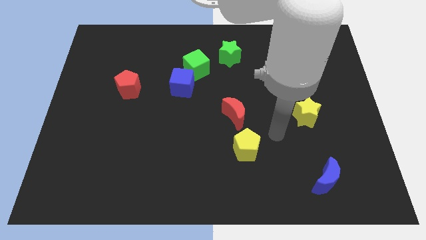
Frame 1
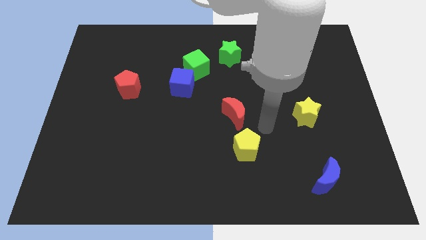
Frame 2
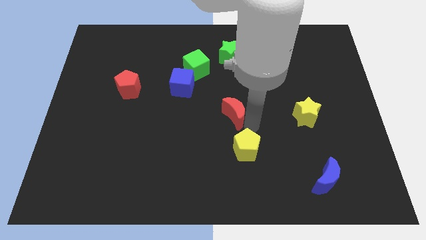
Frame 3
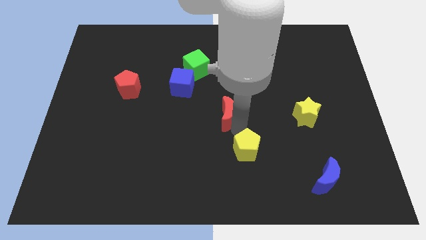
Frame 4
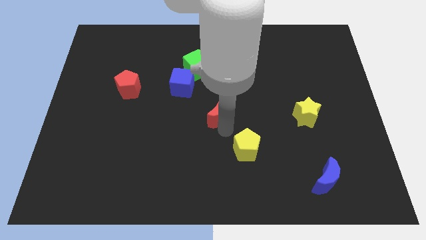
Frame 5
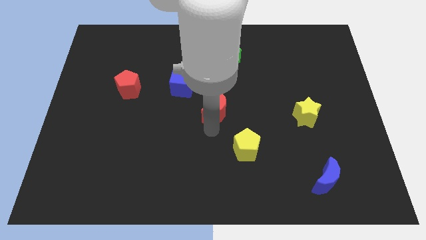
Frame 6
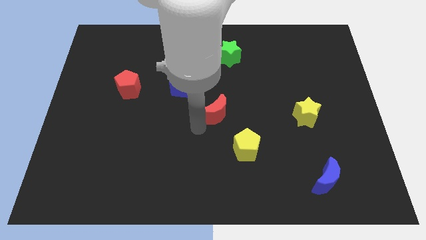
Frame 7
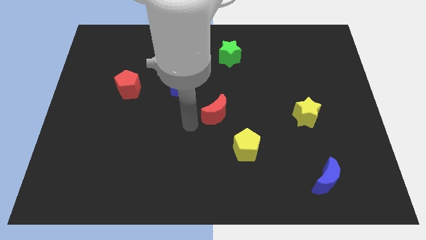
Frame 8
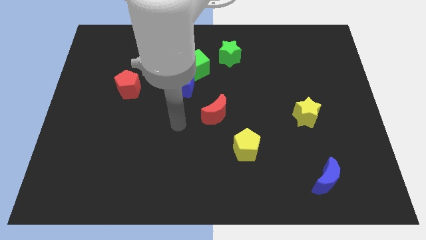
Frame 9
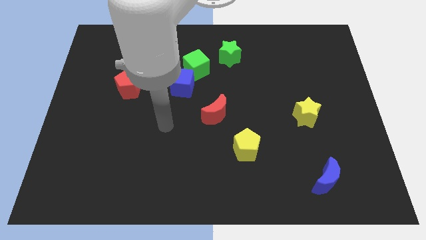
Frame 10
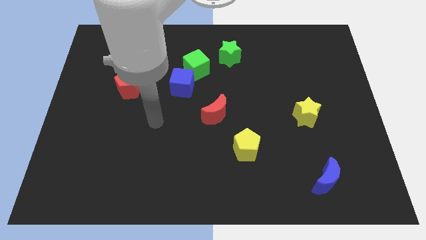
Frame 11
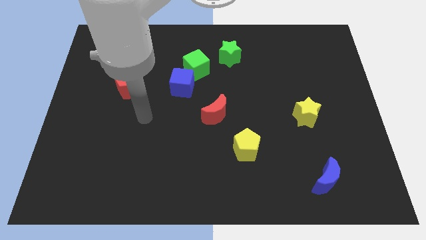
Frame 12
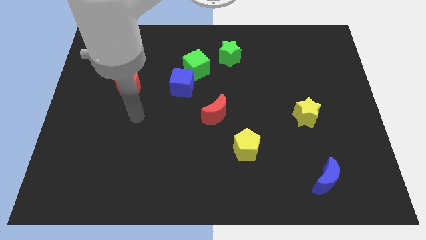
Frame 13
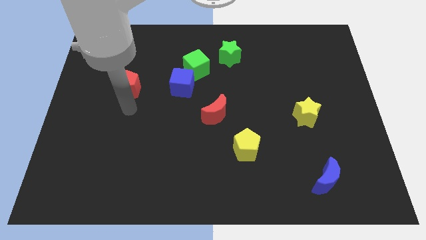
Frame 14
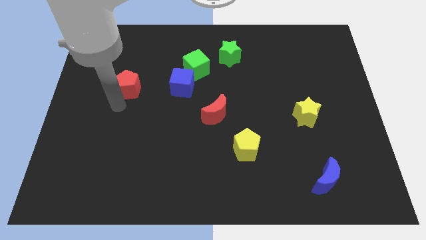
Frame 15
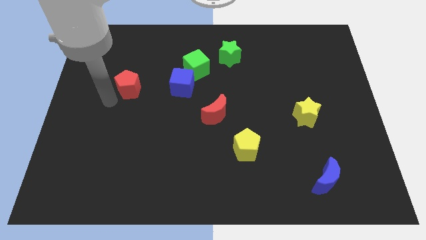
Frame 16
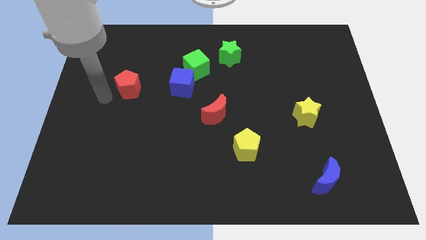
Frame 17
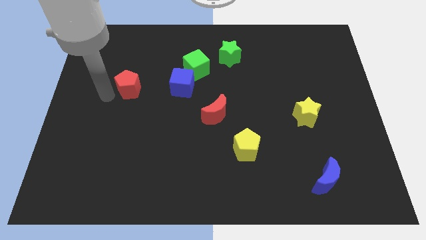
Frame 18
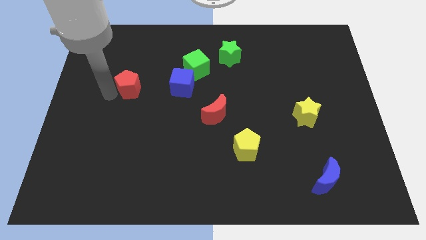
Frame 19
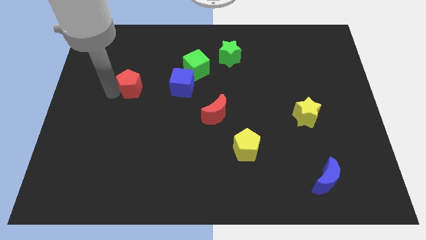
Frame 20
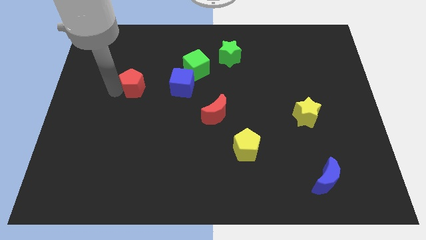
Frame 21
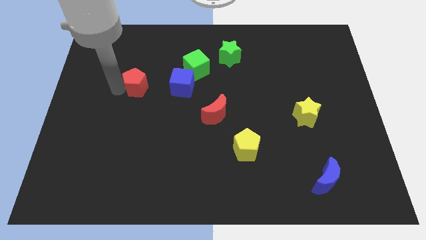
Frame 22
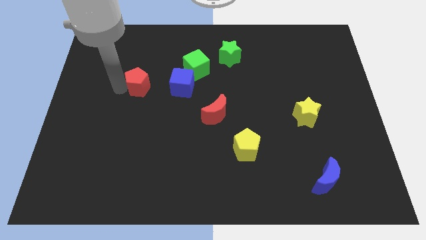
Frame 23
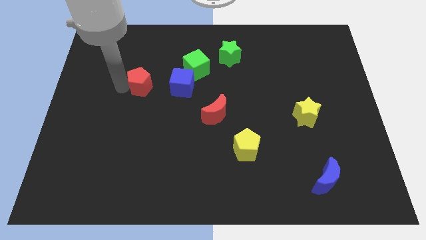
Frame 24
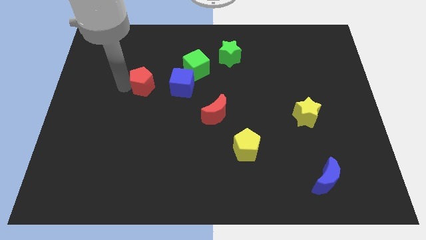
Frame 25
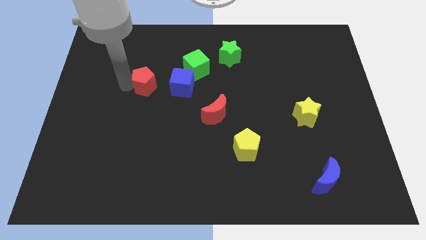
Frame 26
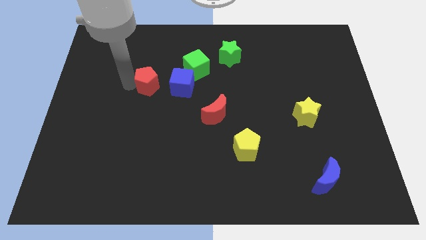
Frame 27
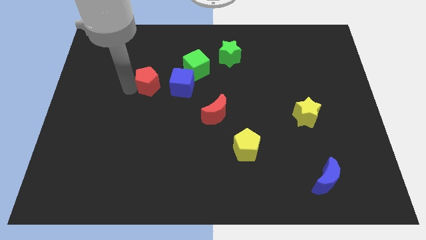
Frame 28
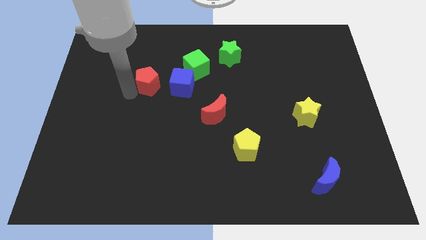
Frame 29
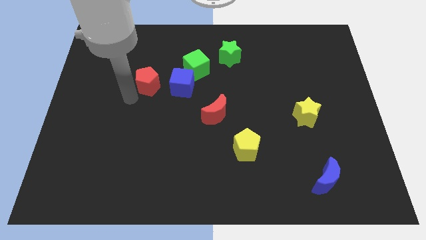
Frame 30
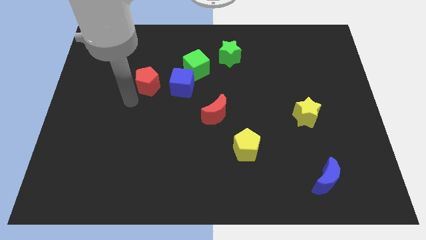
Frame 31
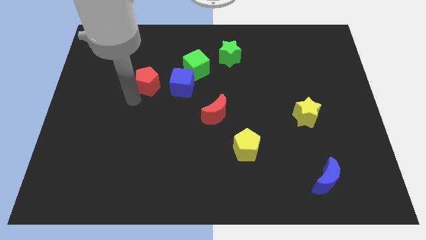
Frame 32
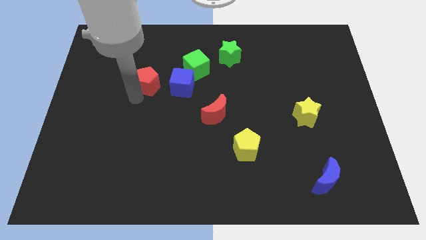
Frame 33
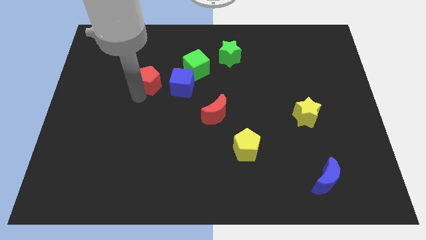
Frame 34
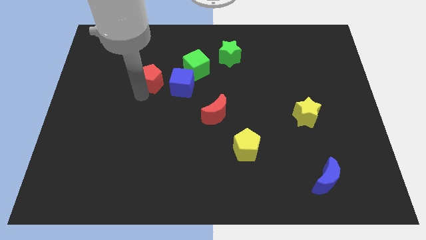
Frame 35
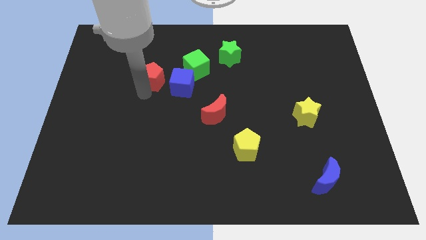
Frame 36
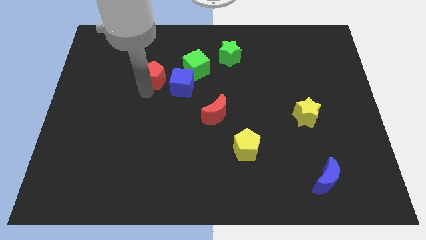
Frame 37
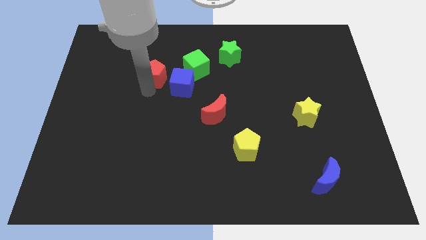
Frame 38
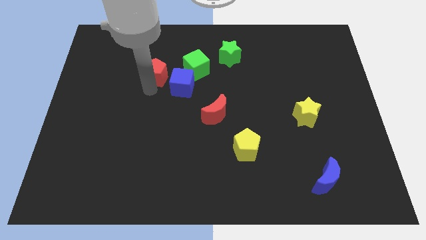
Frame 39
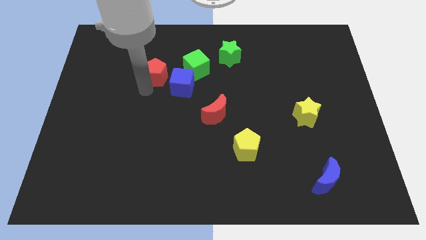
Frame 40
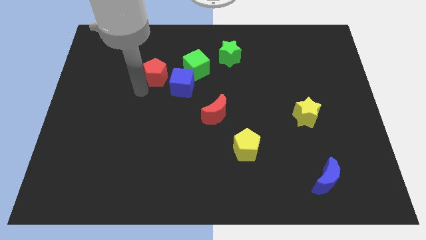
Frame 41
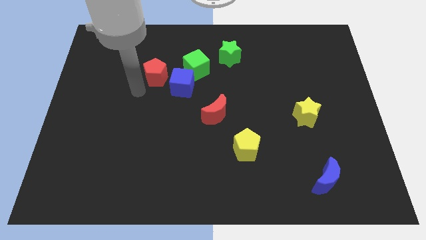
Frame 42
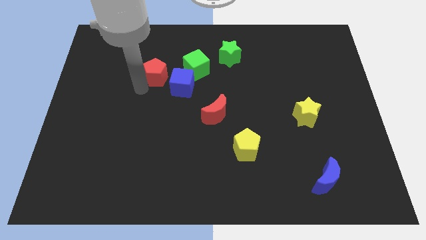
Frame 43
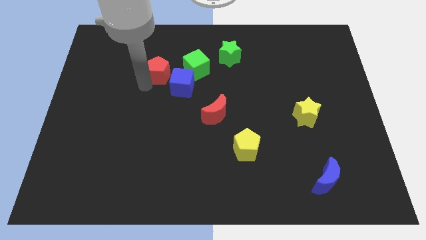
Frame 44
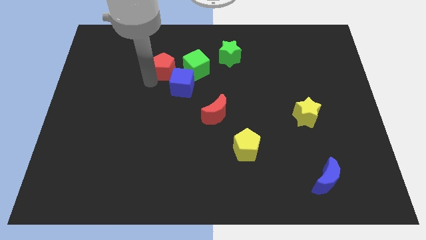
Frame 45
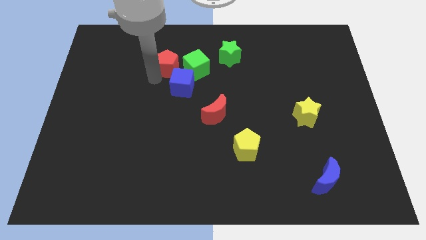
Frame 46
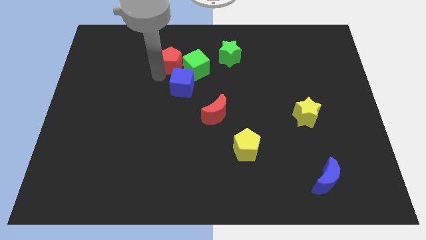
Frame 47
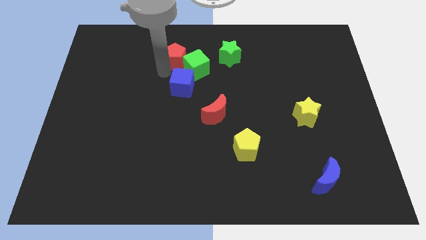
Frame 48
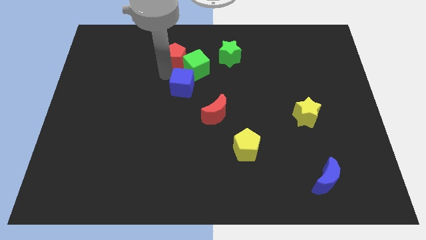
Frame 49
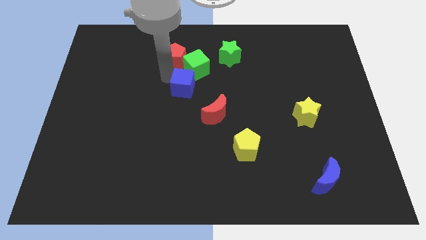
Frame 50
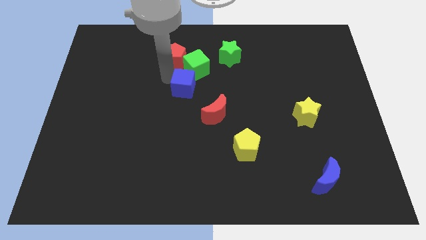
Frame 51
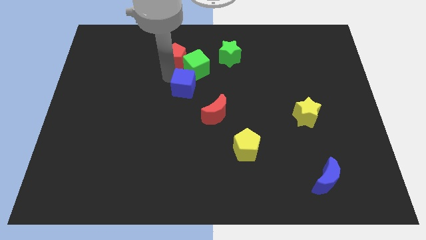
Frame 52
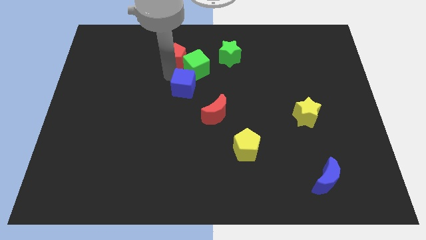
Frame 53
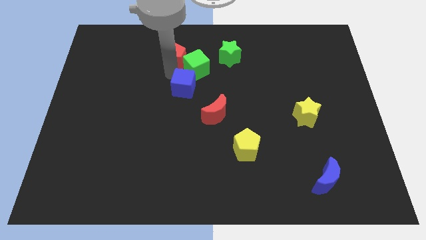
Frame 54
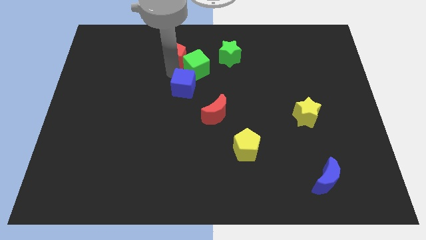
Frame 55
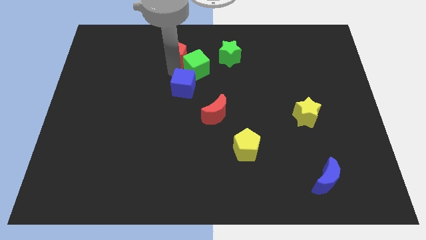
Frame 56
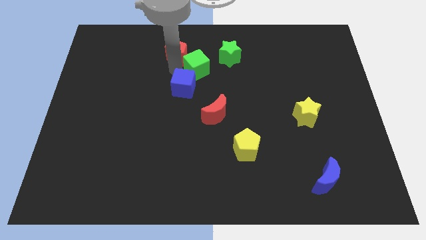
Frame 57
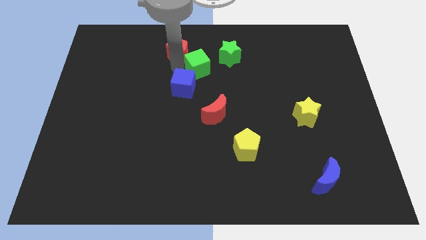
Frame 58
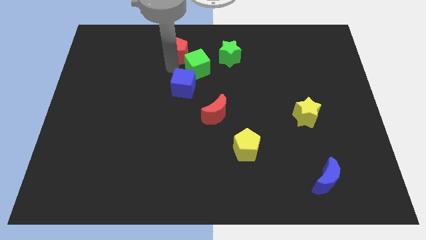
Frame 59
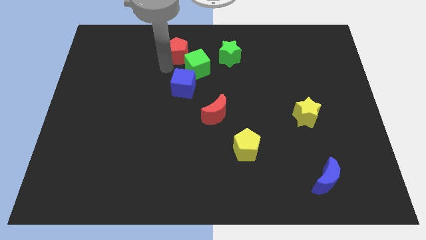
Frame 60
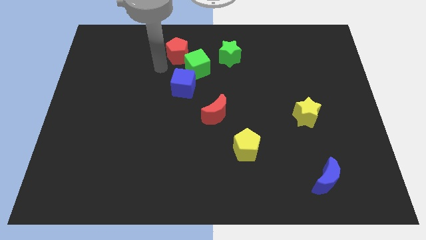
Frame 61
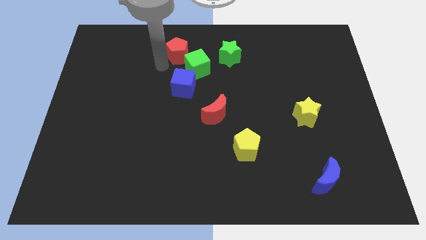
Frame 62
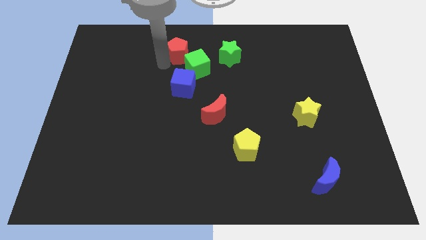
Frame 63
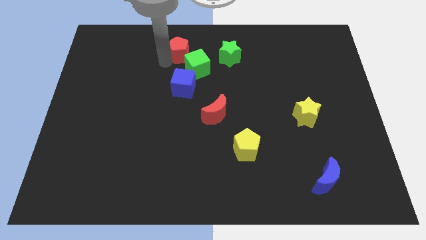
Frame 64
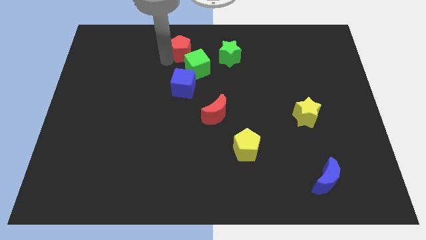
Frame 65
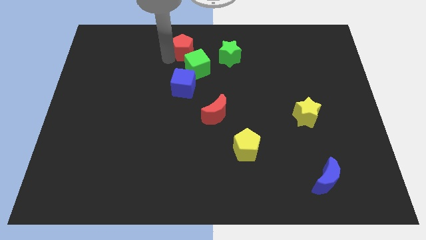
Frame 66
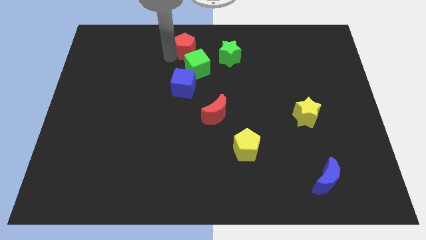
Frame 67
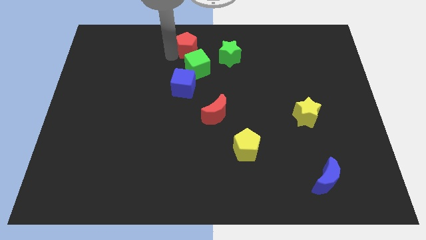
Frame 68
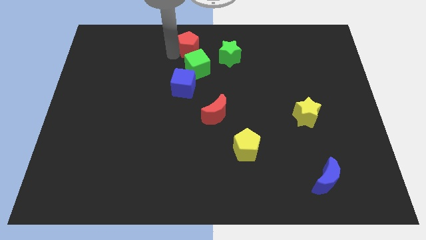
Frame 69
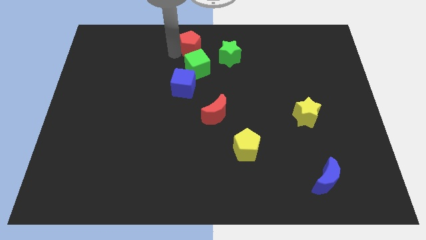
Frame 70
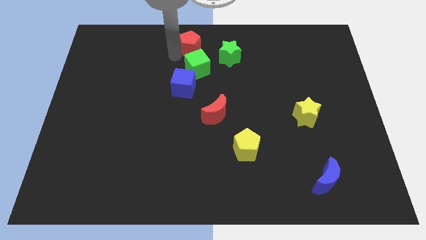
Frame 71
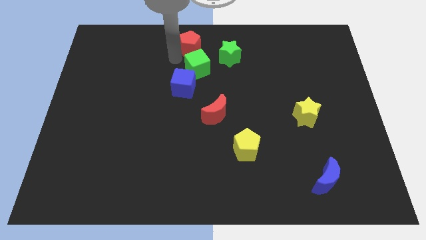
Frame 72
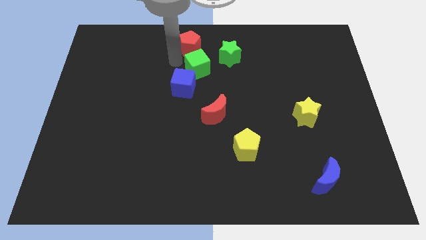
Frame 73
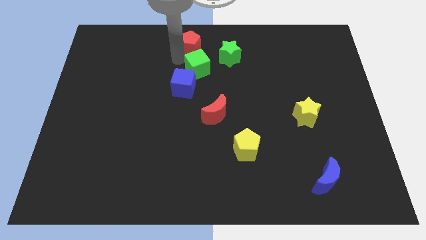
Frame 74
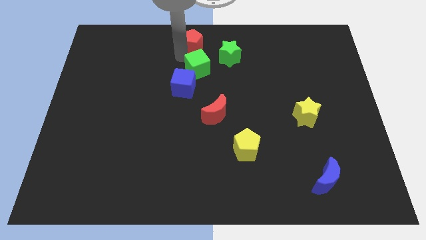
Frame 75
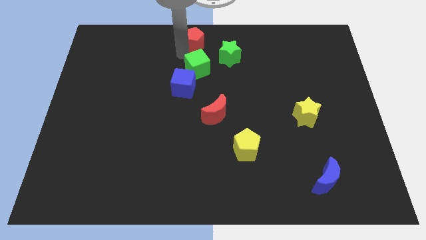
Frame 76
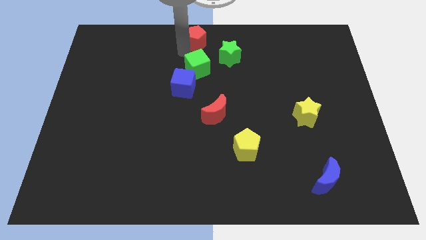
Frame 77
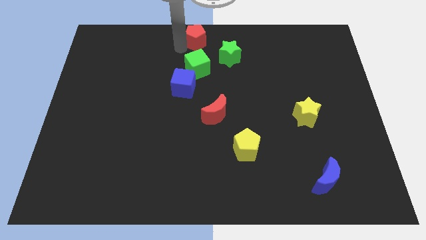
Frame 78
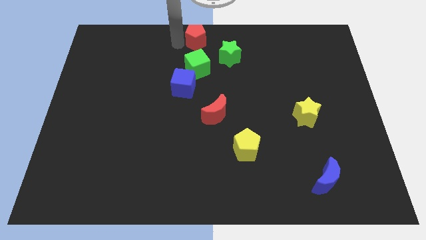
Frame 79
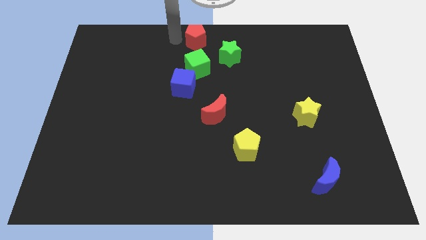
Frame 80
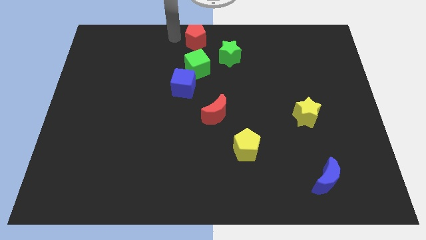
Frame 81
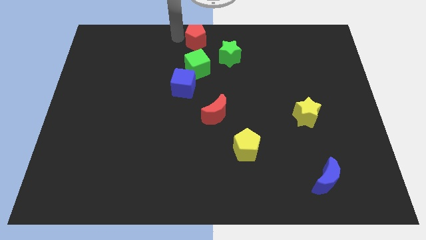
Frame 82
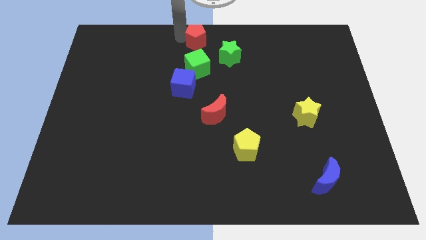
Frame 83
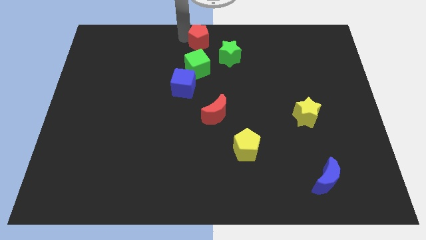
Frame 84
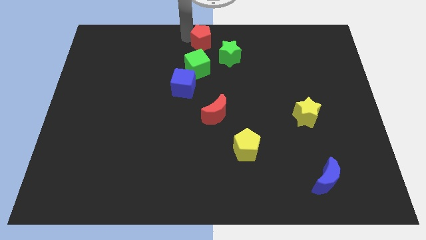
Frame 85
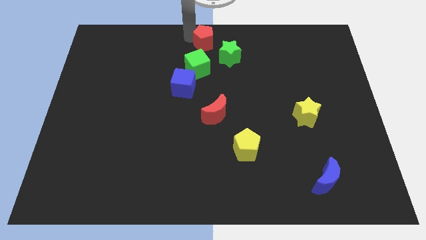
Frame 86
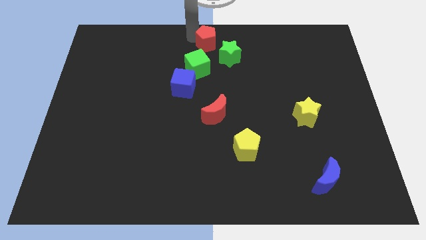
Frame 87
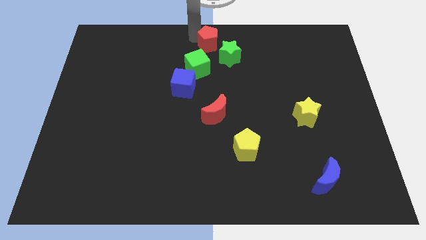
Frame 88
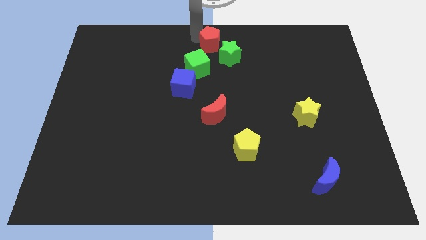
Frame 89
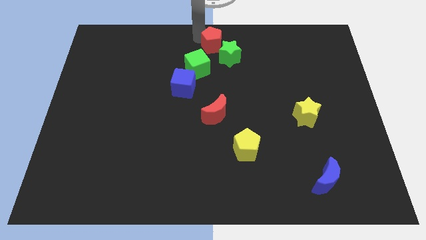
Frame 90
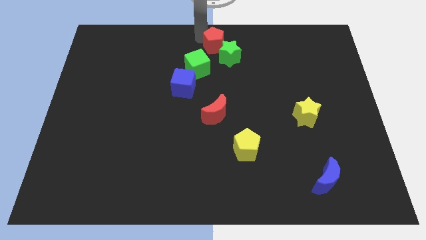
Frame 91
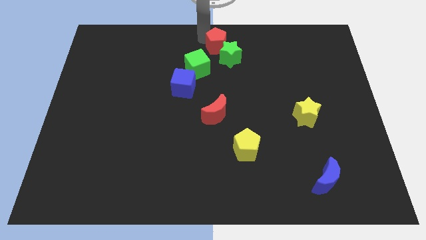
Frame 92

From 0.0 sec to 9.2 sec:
put the red pentagon next to the green star
